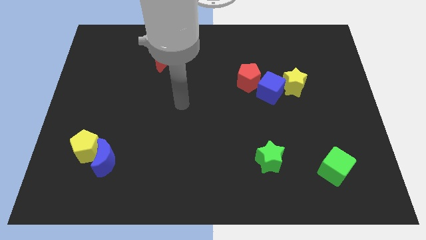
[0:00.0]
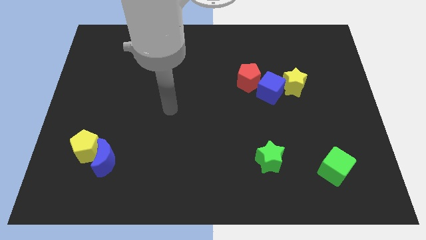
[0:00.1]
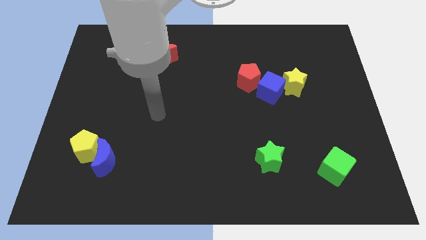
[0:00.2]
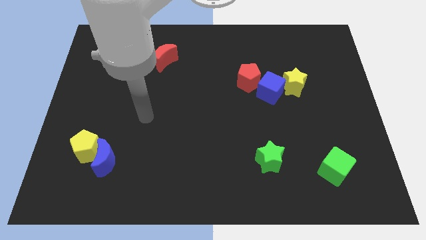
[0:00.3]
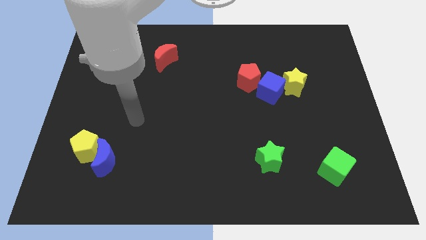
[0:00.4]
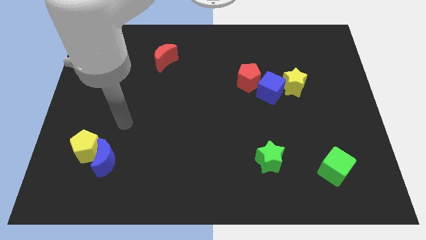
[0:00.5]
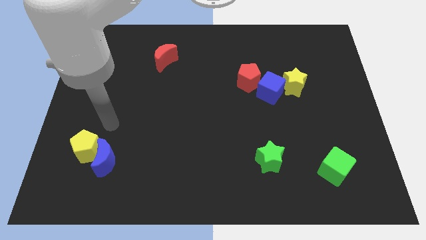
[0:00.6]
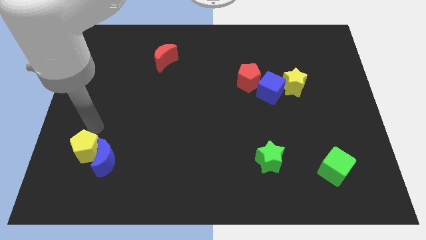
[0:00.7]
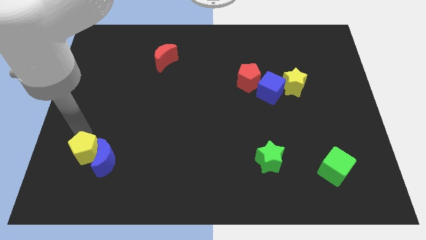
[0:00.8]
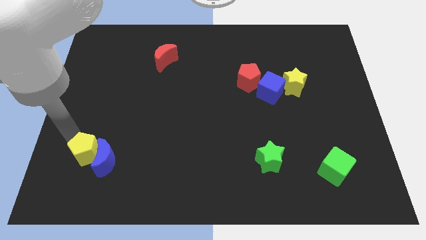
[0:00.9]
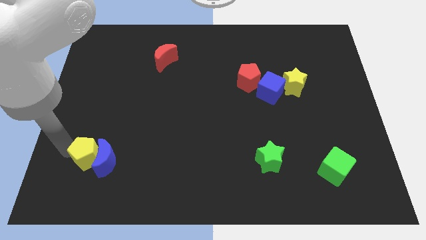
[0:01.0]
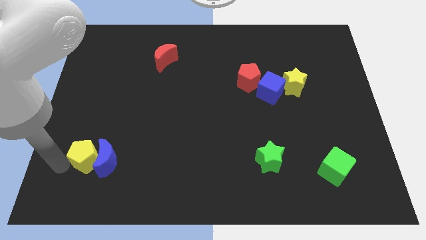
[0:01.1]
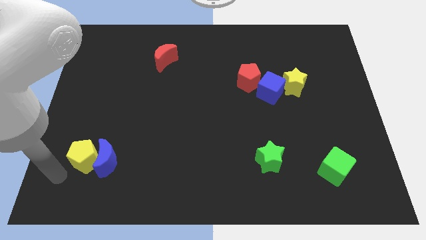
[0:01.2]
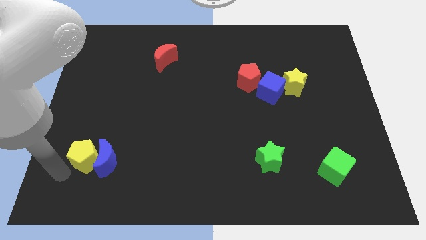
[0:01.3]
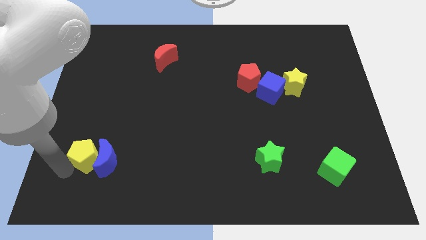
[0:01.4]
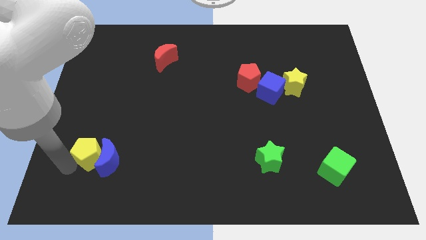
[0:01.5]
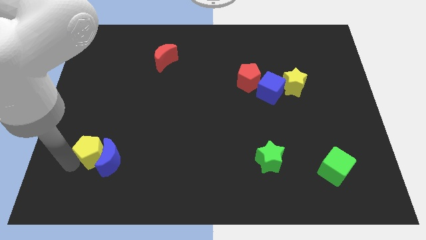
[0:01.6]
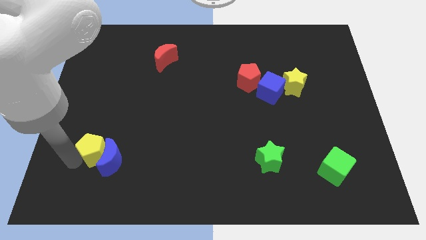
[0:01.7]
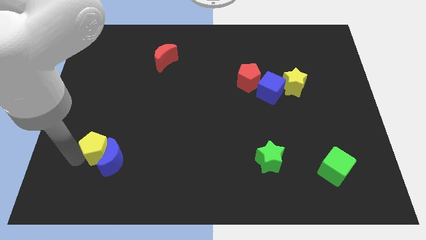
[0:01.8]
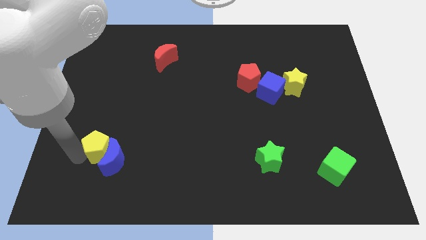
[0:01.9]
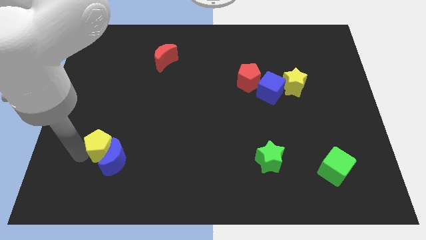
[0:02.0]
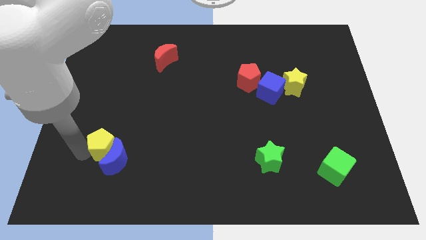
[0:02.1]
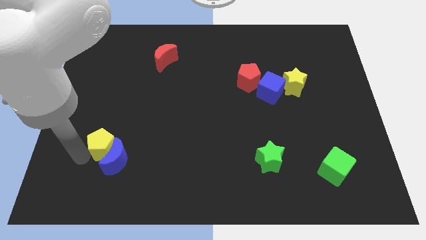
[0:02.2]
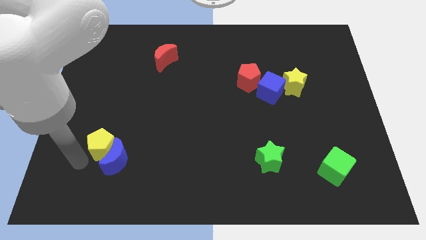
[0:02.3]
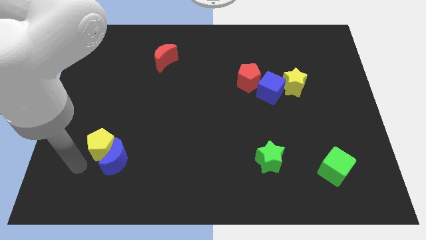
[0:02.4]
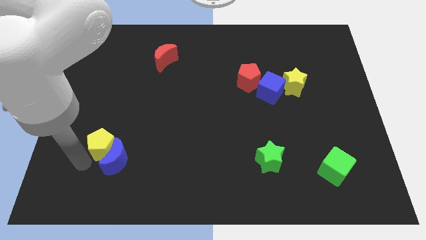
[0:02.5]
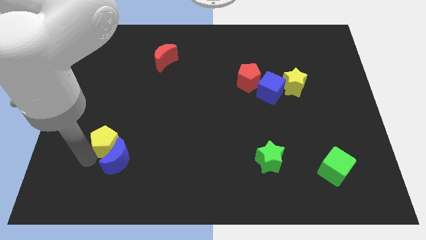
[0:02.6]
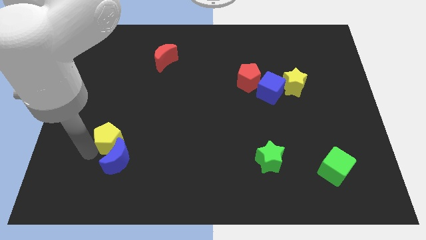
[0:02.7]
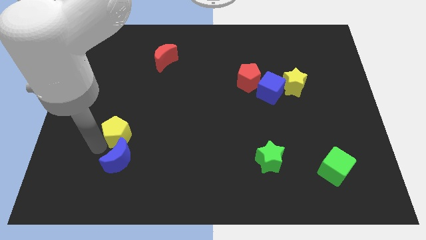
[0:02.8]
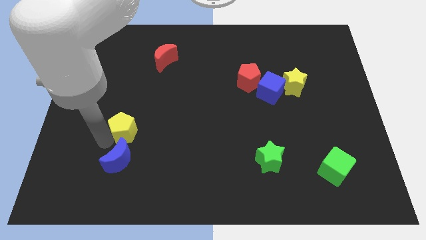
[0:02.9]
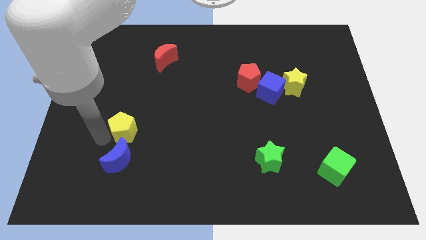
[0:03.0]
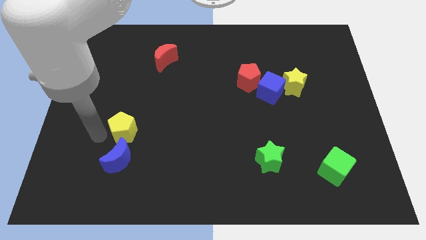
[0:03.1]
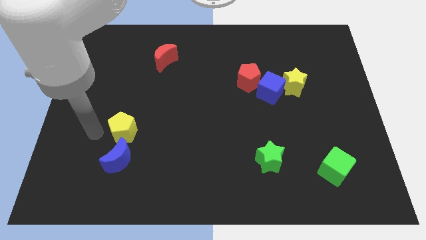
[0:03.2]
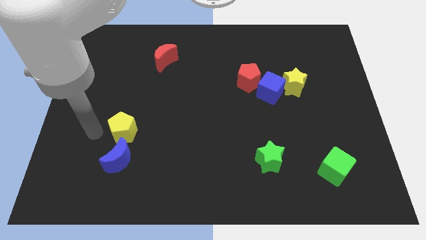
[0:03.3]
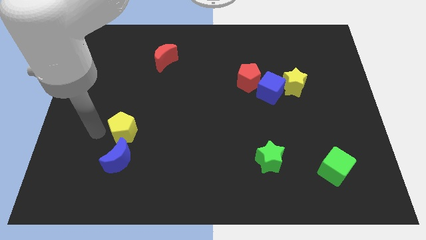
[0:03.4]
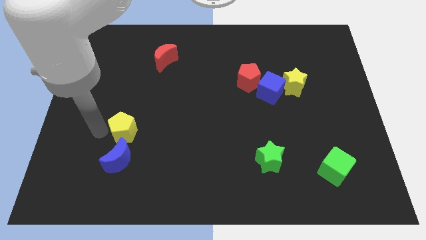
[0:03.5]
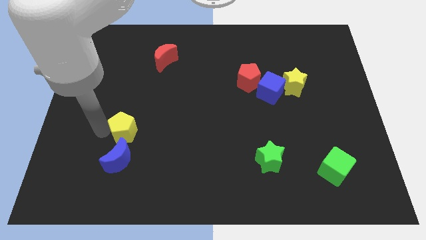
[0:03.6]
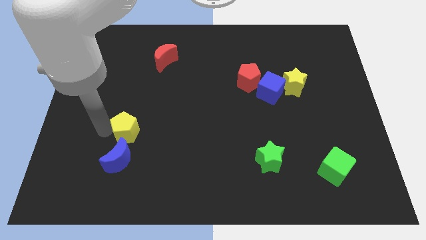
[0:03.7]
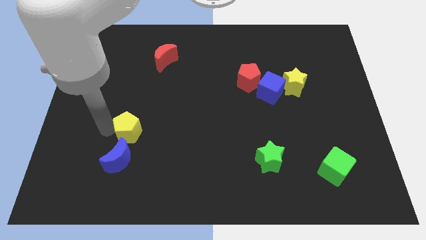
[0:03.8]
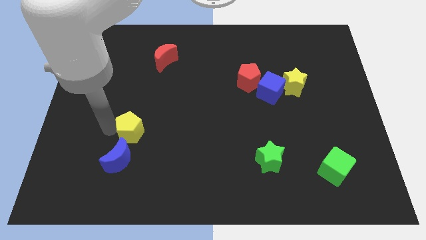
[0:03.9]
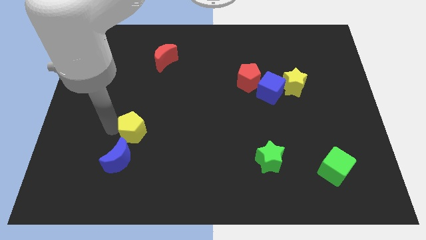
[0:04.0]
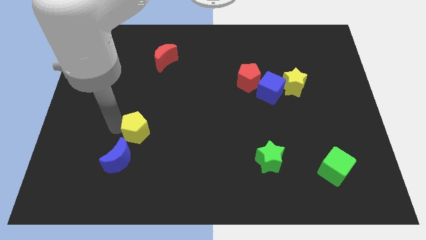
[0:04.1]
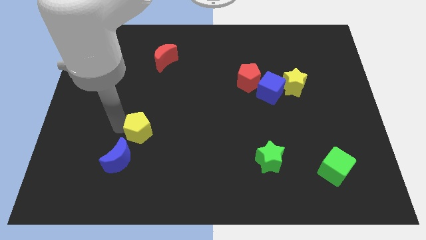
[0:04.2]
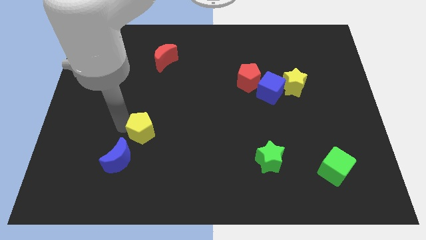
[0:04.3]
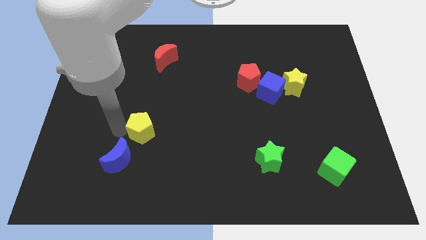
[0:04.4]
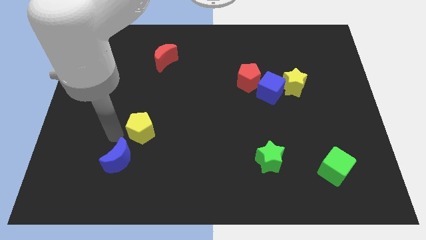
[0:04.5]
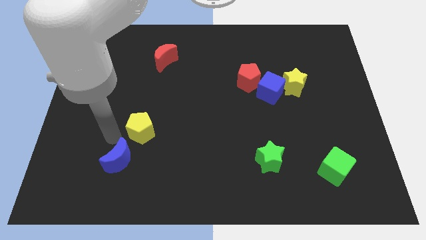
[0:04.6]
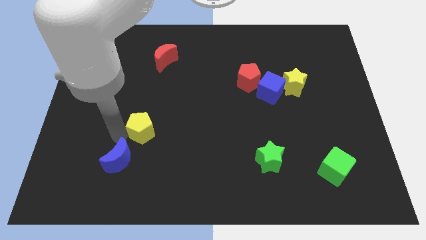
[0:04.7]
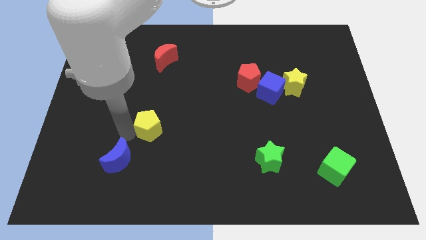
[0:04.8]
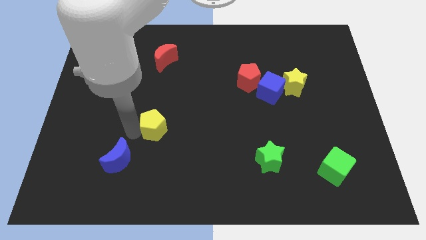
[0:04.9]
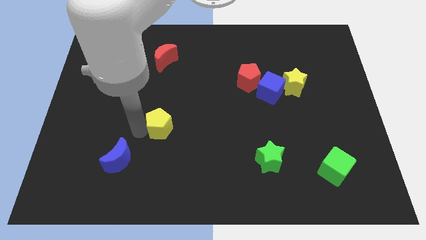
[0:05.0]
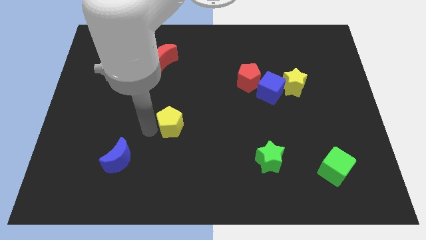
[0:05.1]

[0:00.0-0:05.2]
push the yellow pentagon to the center

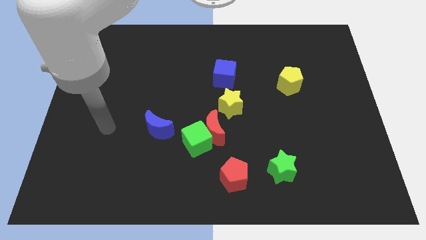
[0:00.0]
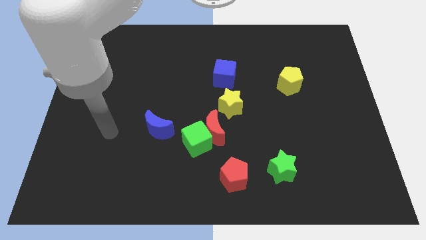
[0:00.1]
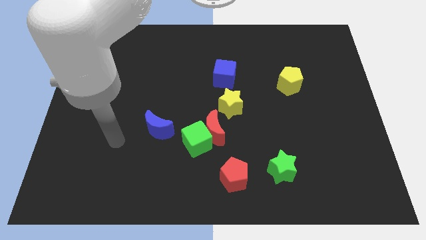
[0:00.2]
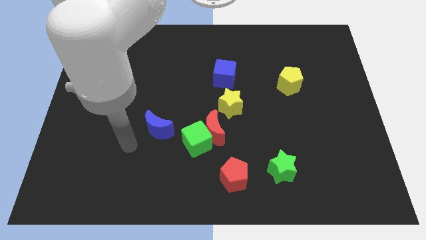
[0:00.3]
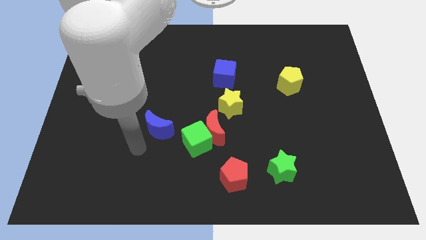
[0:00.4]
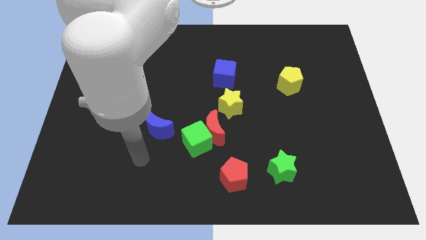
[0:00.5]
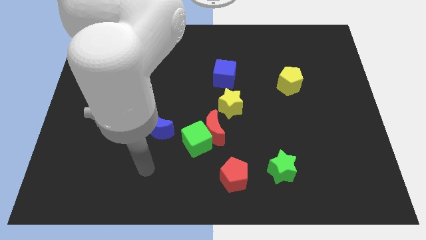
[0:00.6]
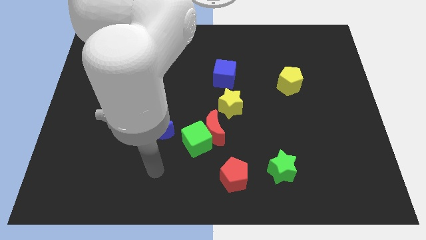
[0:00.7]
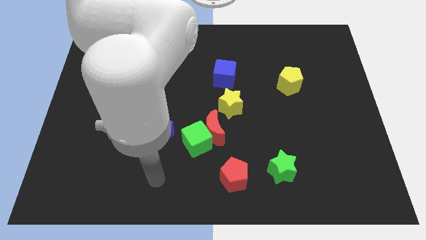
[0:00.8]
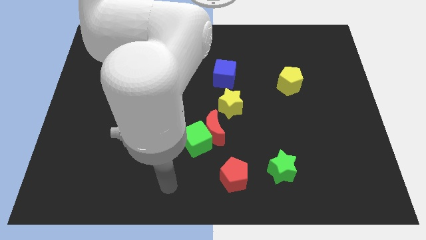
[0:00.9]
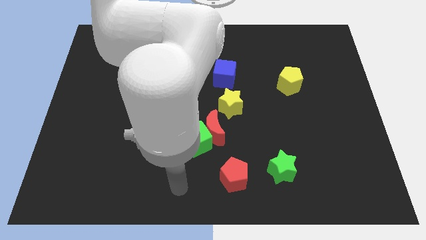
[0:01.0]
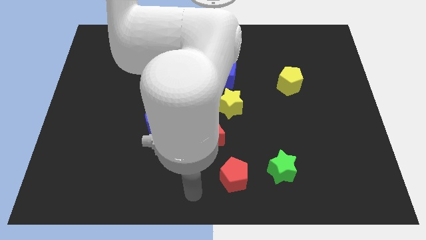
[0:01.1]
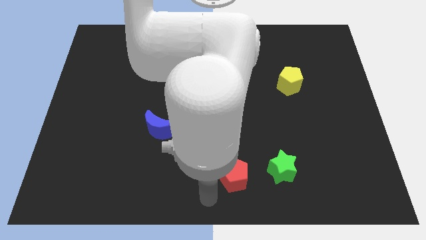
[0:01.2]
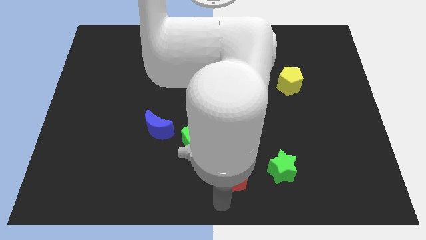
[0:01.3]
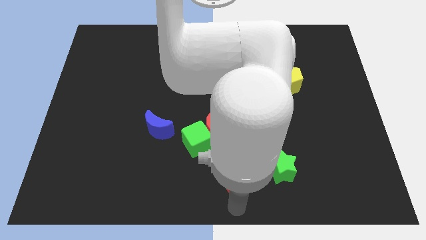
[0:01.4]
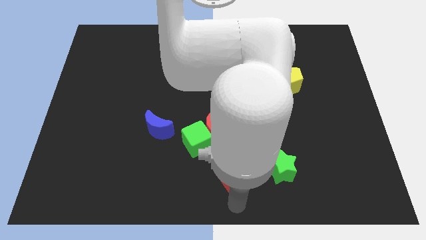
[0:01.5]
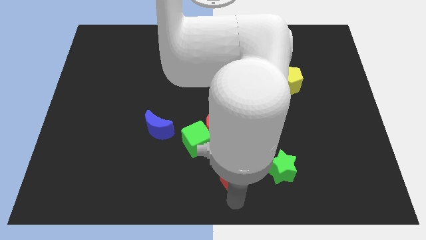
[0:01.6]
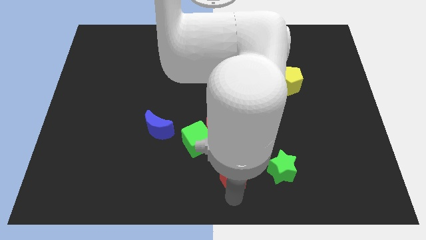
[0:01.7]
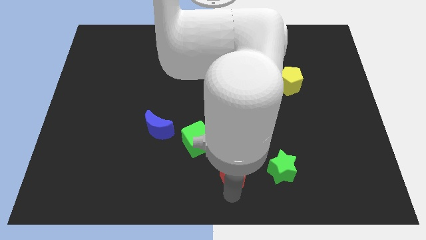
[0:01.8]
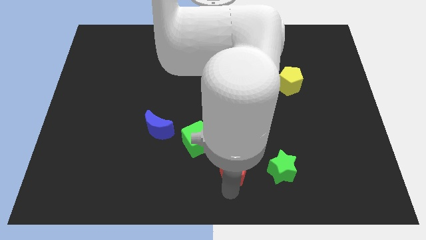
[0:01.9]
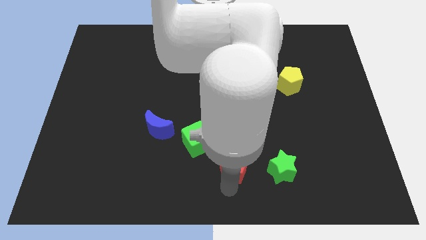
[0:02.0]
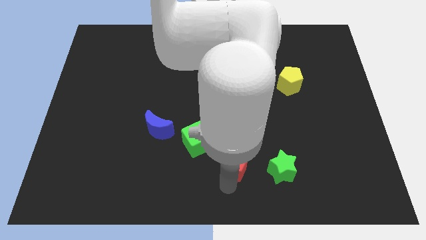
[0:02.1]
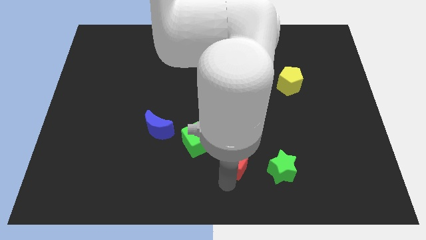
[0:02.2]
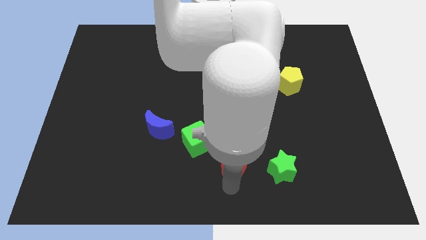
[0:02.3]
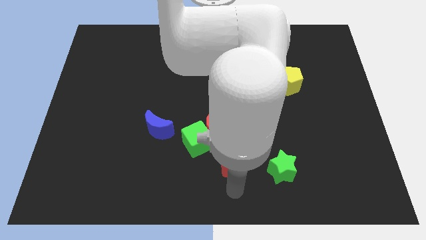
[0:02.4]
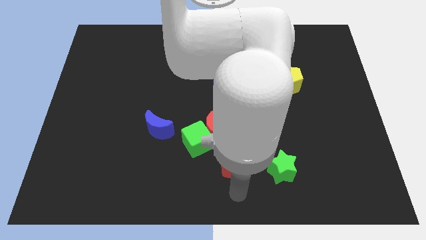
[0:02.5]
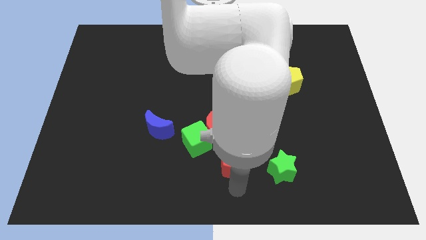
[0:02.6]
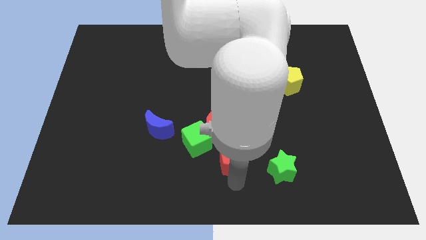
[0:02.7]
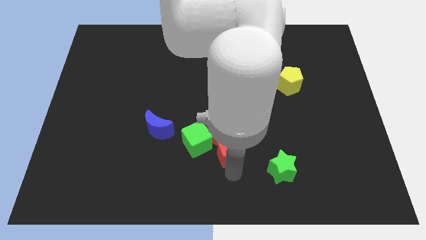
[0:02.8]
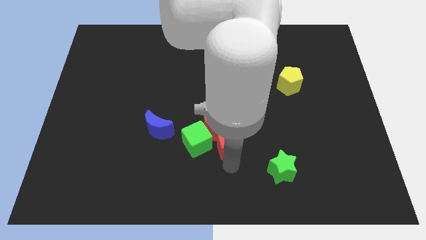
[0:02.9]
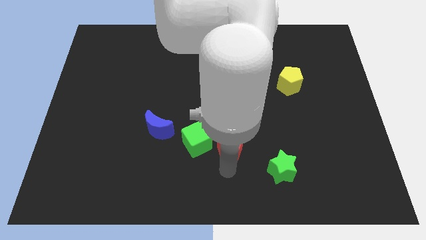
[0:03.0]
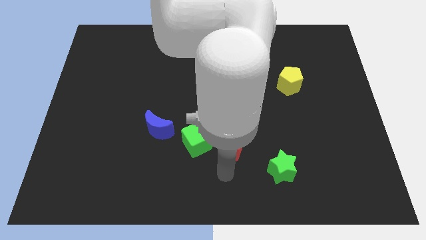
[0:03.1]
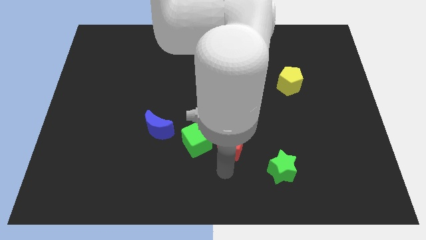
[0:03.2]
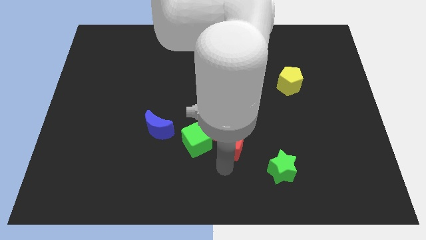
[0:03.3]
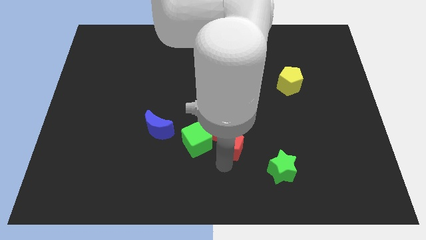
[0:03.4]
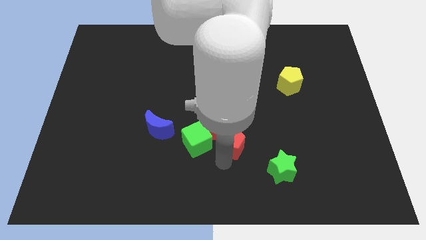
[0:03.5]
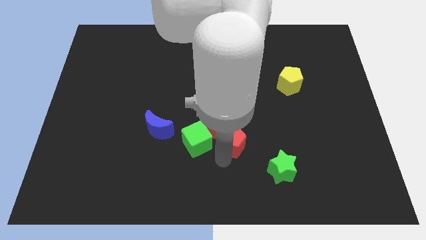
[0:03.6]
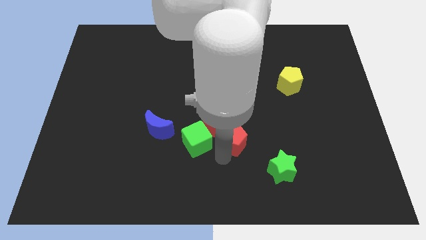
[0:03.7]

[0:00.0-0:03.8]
put the red pentagon to the middle
